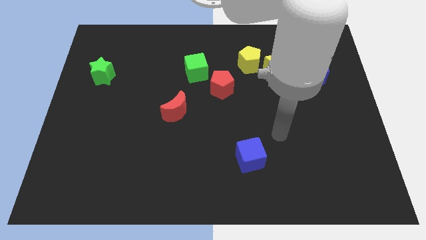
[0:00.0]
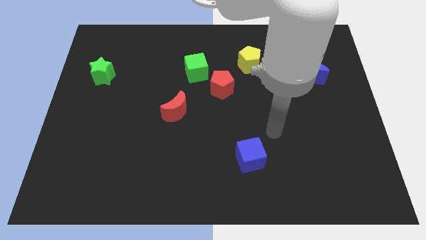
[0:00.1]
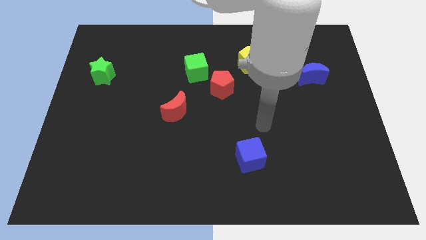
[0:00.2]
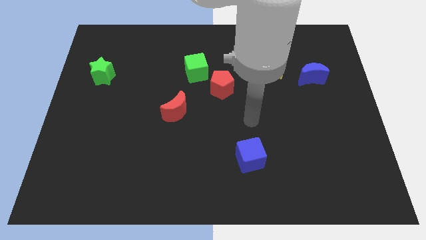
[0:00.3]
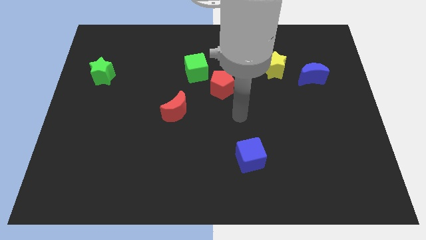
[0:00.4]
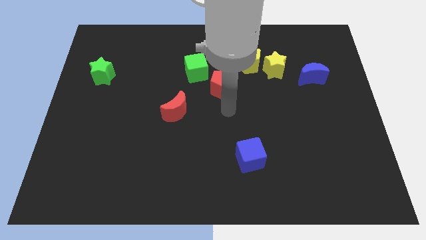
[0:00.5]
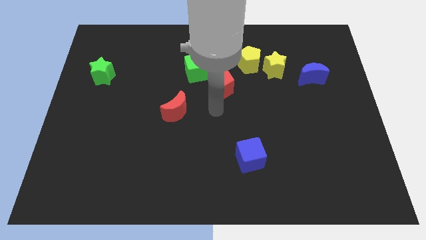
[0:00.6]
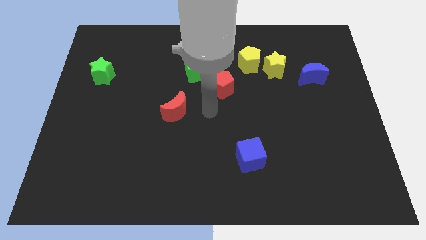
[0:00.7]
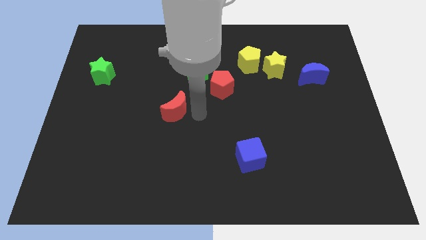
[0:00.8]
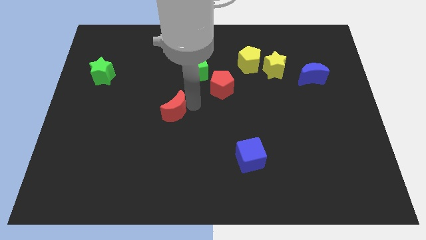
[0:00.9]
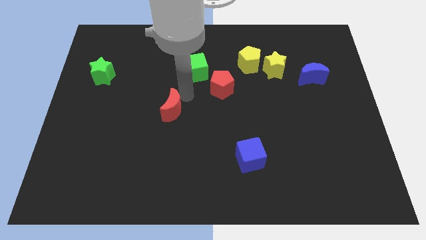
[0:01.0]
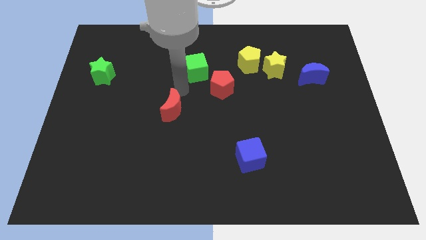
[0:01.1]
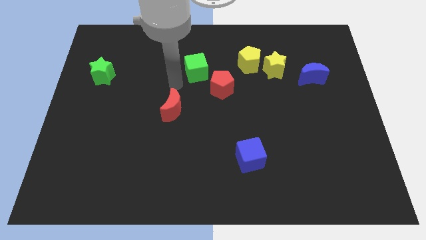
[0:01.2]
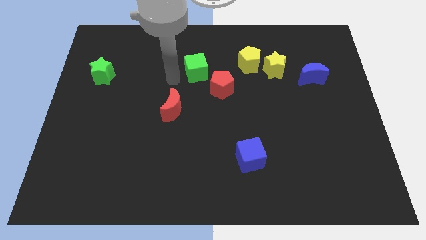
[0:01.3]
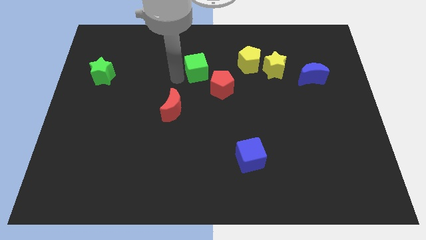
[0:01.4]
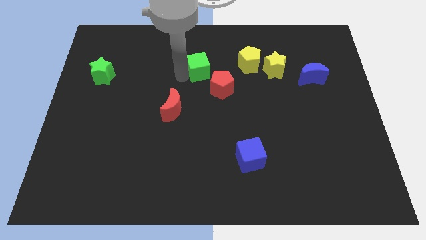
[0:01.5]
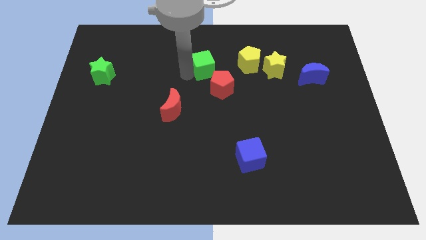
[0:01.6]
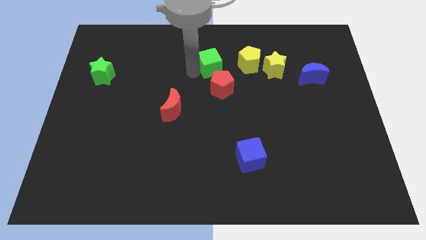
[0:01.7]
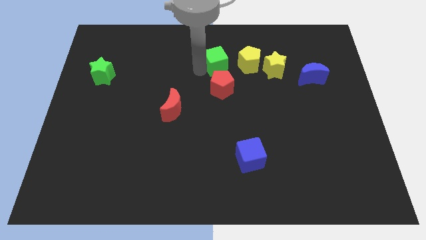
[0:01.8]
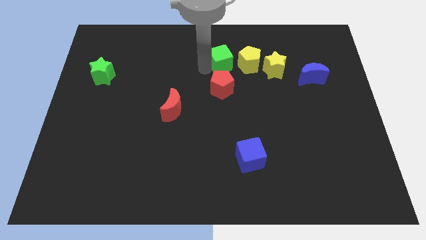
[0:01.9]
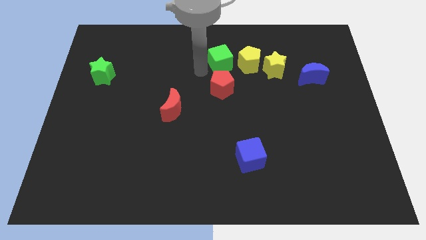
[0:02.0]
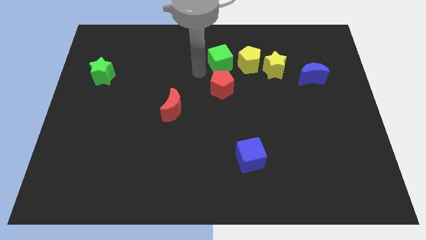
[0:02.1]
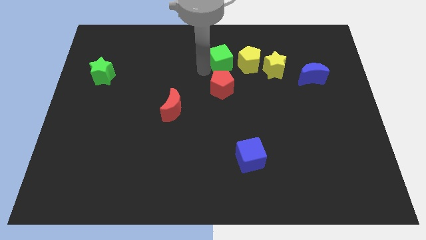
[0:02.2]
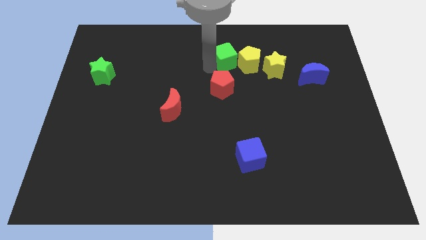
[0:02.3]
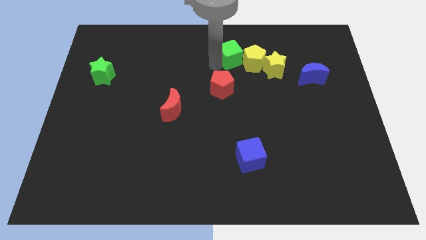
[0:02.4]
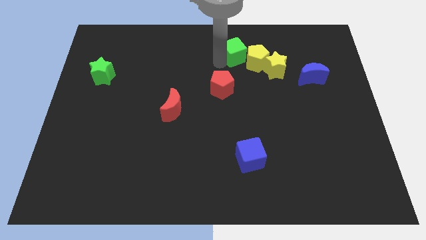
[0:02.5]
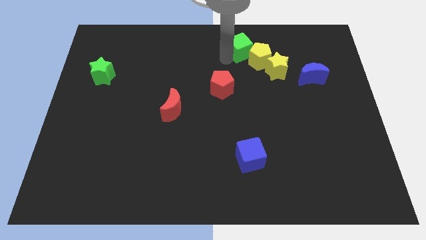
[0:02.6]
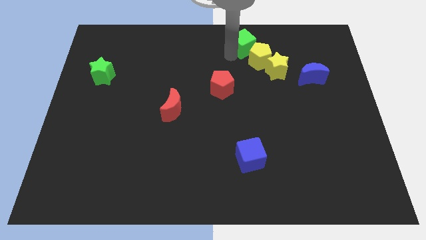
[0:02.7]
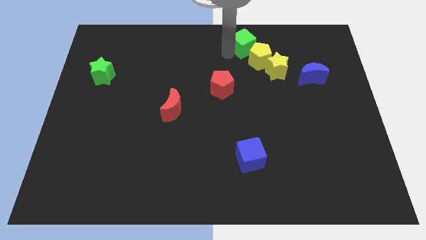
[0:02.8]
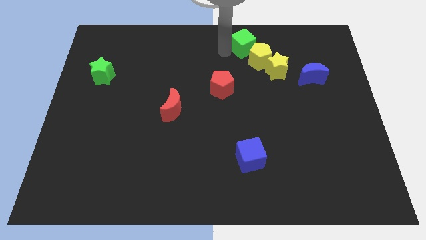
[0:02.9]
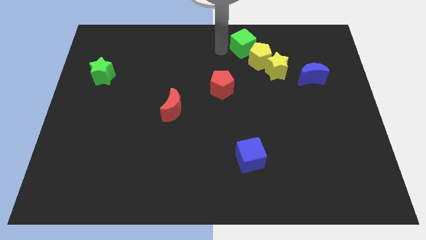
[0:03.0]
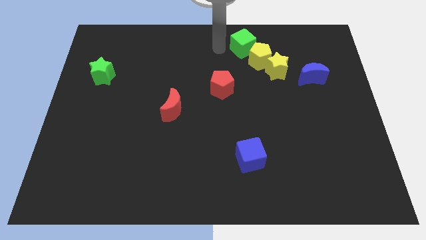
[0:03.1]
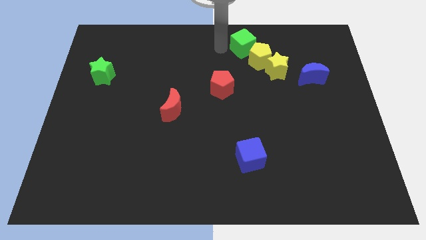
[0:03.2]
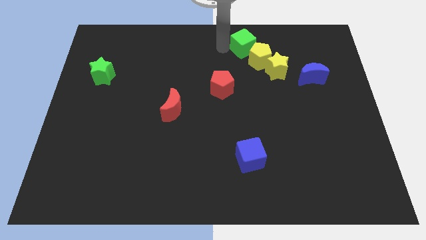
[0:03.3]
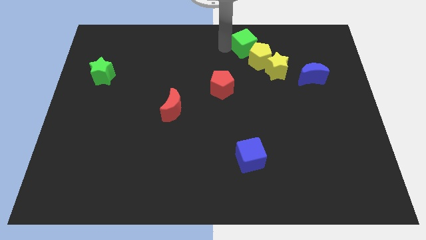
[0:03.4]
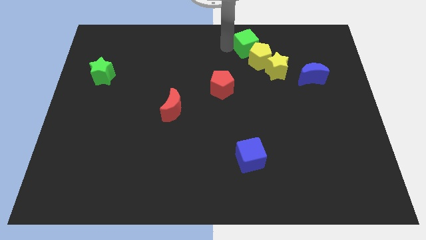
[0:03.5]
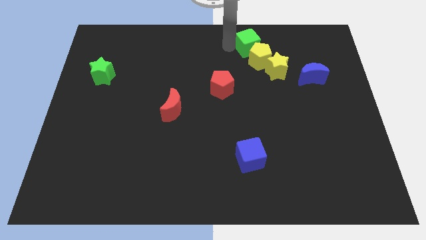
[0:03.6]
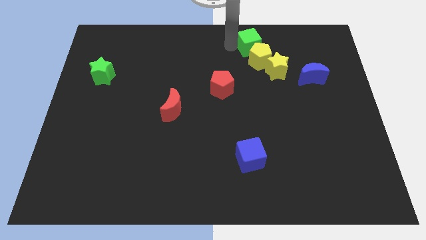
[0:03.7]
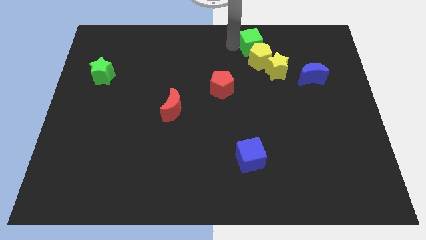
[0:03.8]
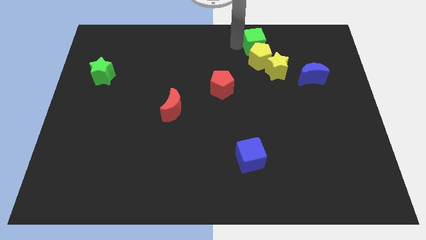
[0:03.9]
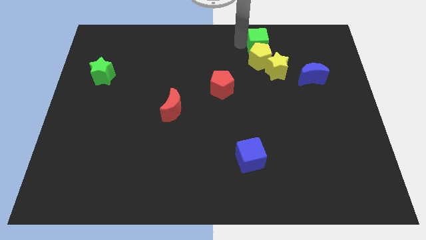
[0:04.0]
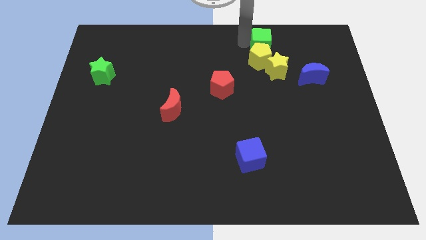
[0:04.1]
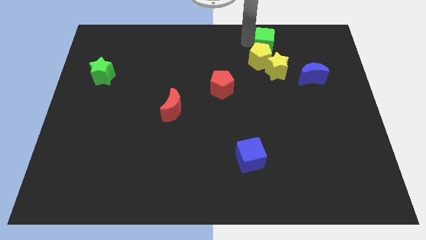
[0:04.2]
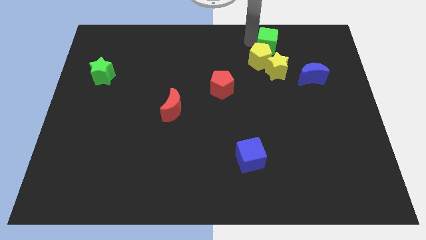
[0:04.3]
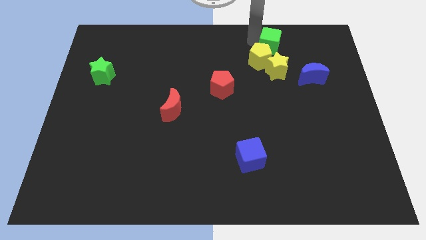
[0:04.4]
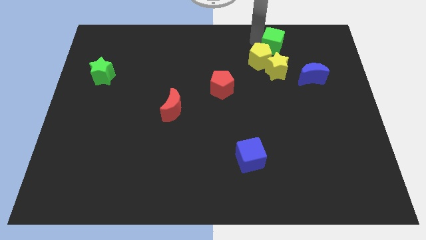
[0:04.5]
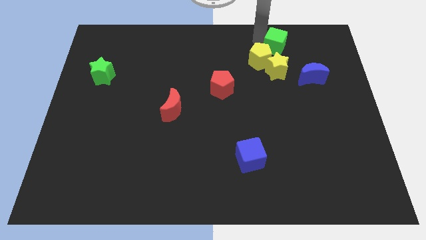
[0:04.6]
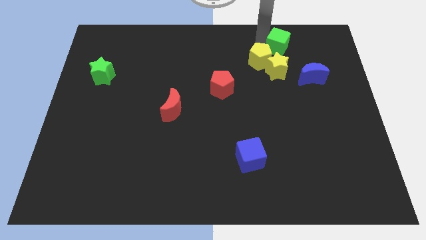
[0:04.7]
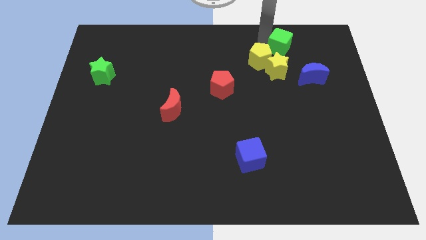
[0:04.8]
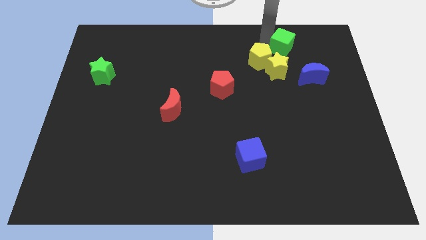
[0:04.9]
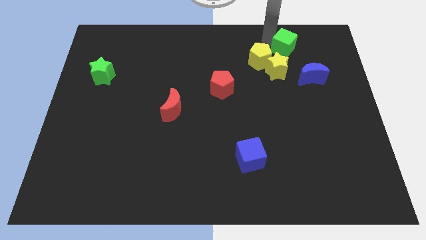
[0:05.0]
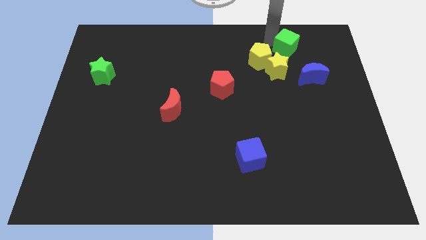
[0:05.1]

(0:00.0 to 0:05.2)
slide the green cube right

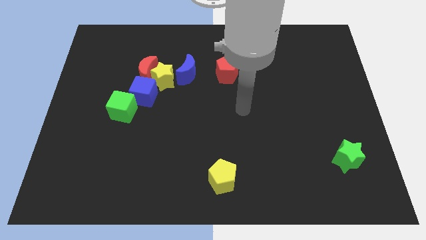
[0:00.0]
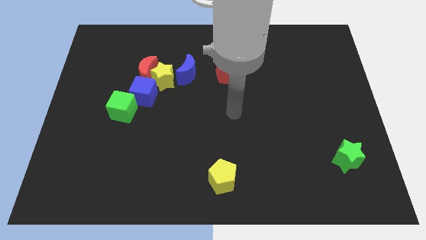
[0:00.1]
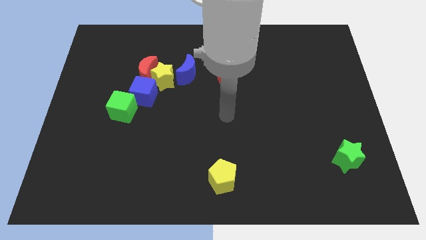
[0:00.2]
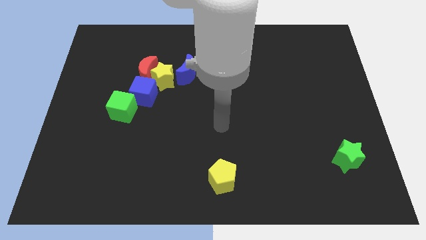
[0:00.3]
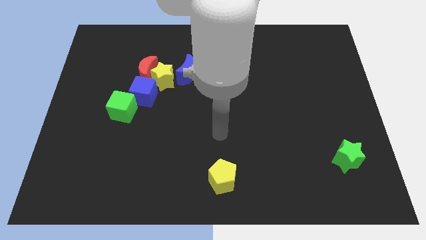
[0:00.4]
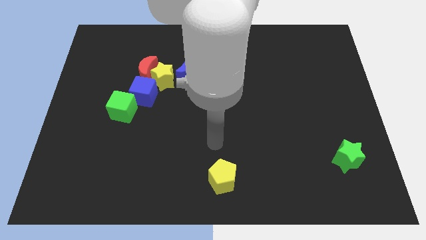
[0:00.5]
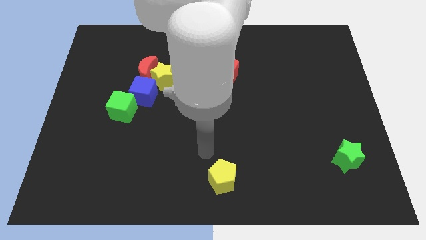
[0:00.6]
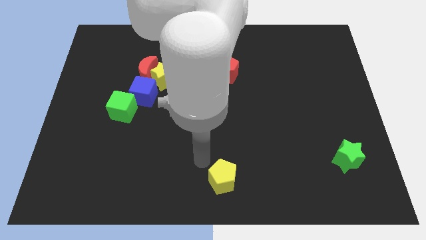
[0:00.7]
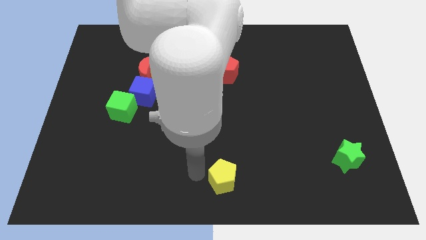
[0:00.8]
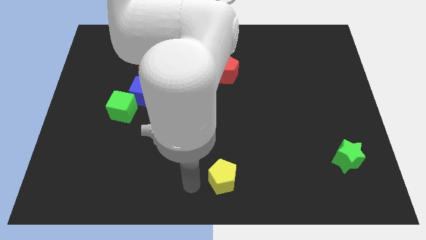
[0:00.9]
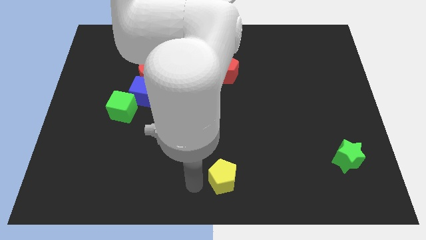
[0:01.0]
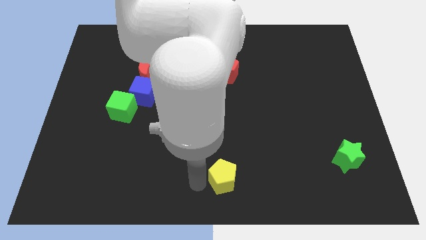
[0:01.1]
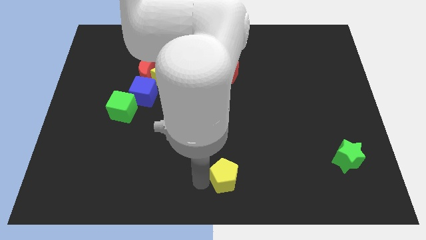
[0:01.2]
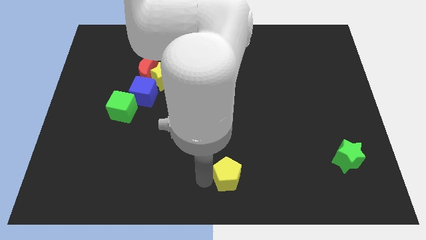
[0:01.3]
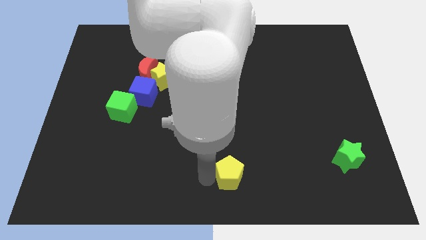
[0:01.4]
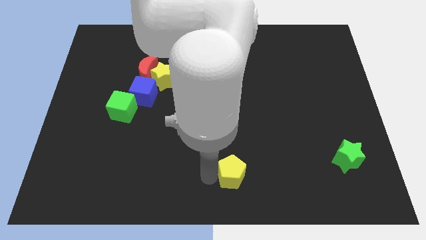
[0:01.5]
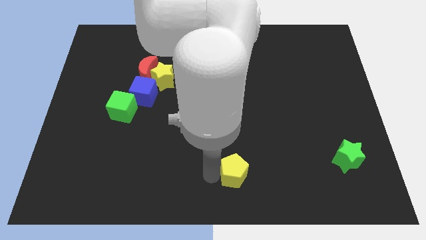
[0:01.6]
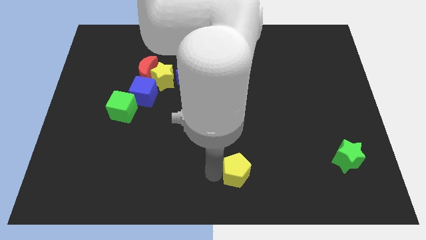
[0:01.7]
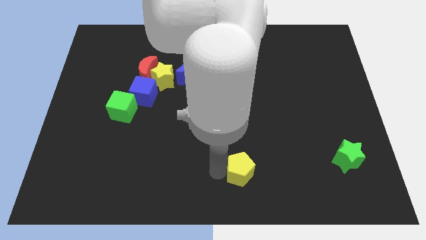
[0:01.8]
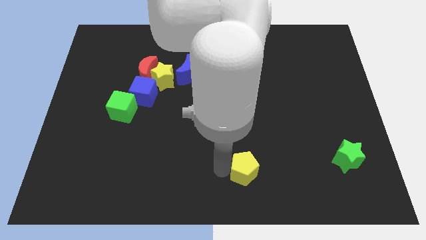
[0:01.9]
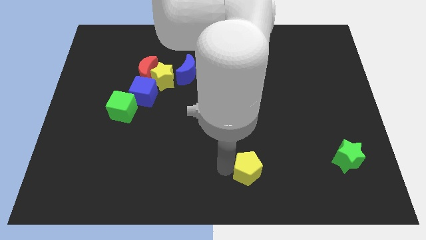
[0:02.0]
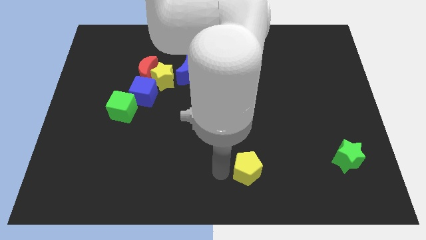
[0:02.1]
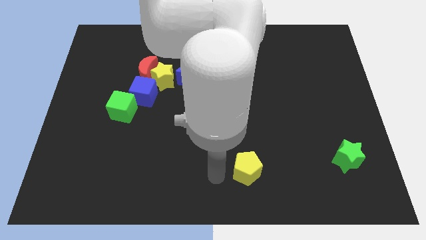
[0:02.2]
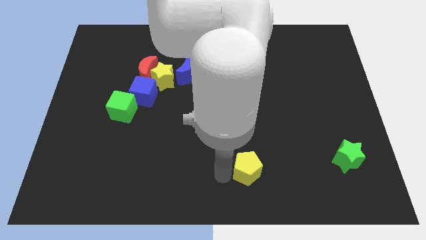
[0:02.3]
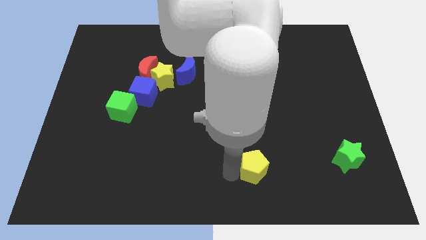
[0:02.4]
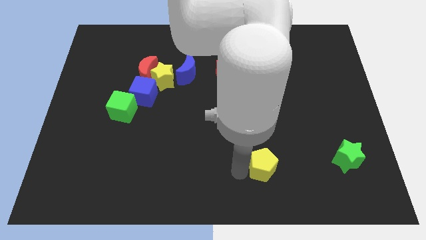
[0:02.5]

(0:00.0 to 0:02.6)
slightly move the yellow pentagon to the right

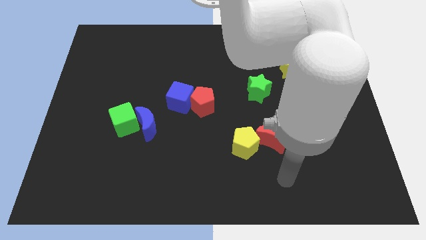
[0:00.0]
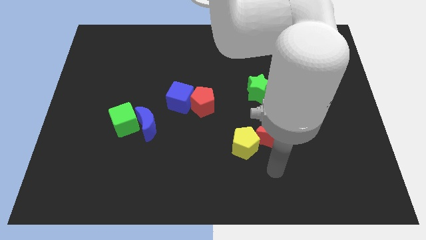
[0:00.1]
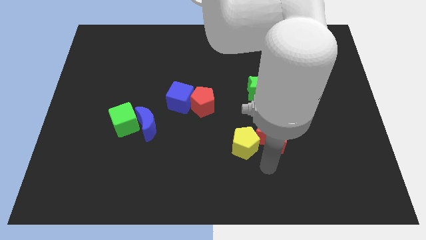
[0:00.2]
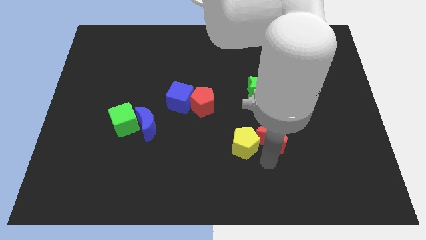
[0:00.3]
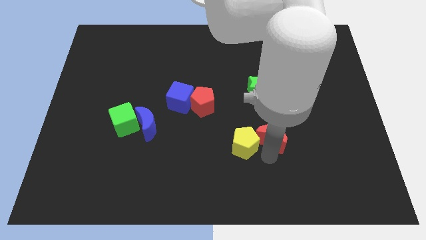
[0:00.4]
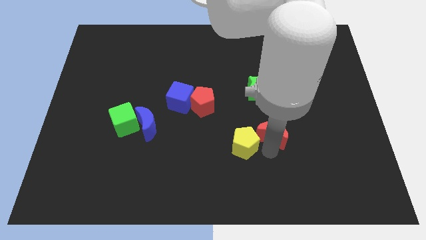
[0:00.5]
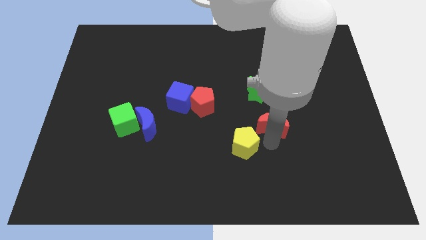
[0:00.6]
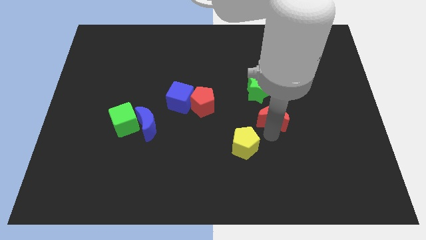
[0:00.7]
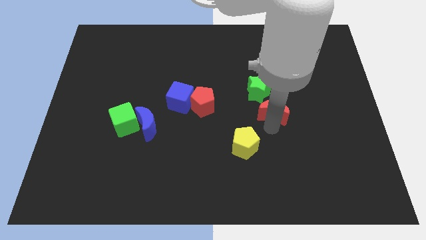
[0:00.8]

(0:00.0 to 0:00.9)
push the red moon upwards somewhat
